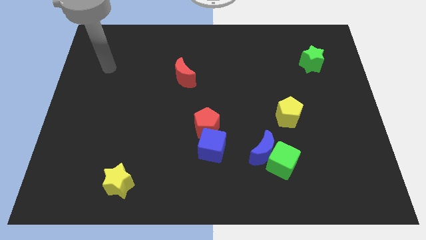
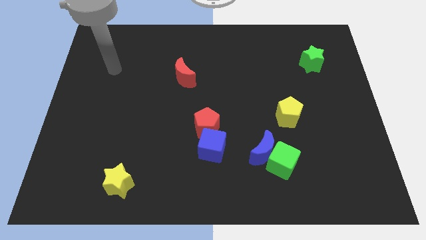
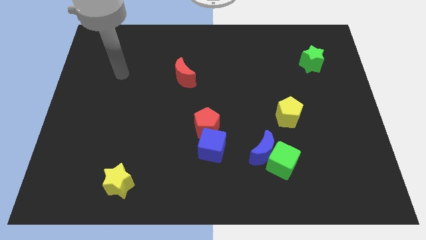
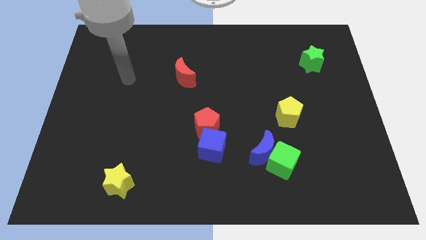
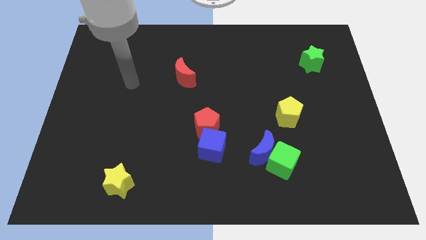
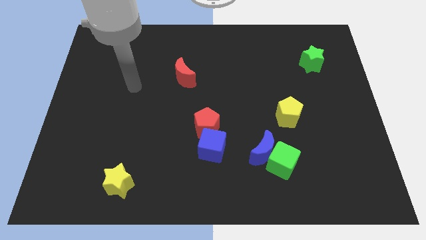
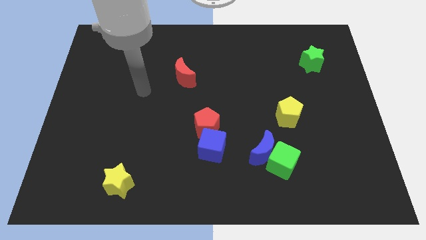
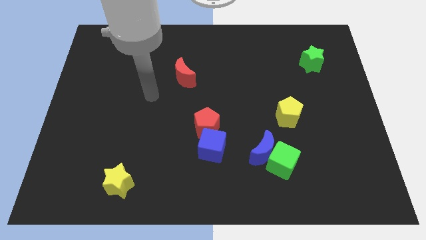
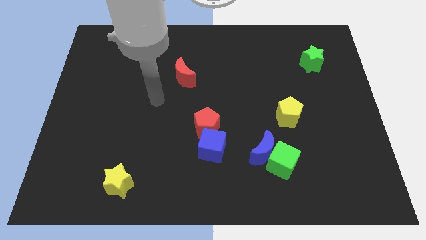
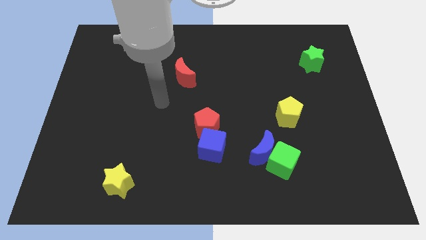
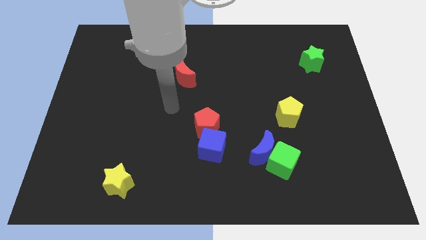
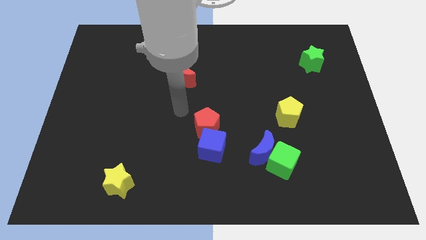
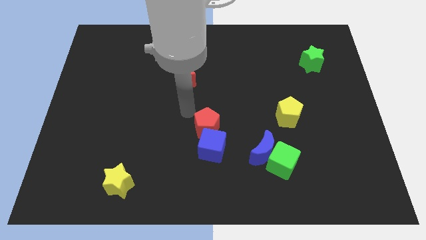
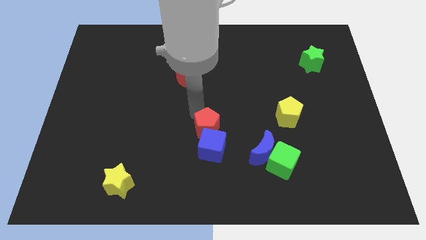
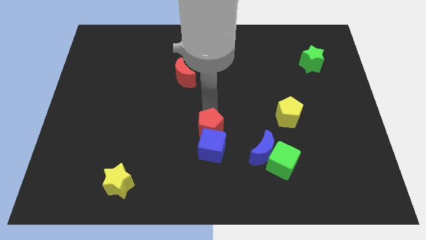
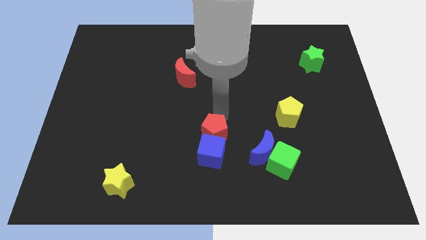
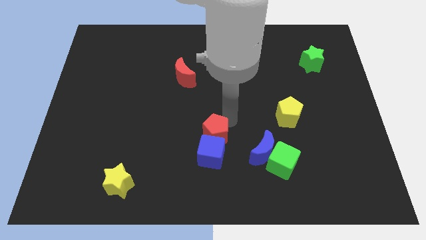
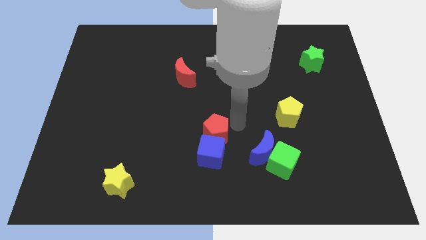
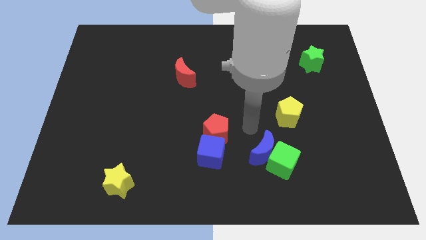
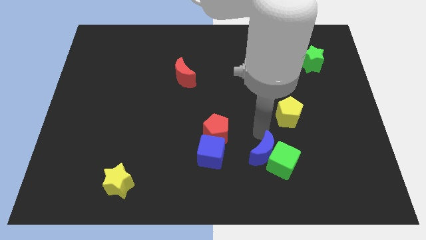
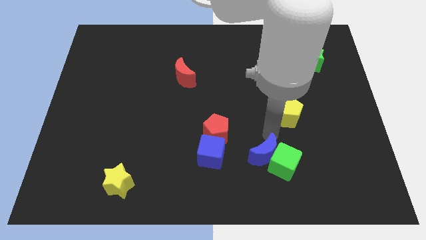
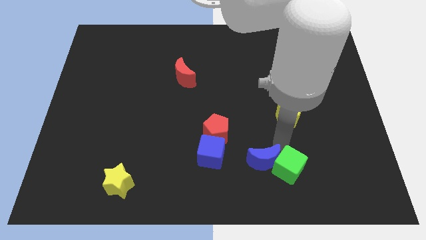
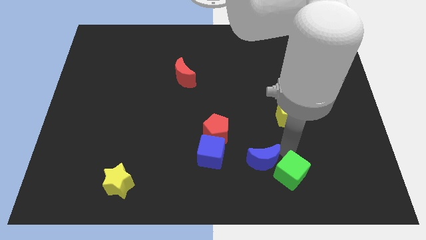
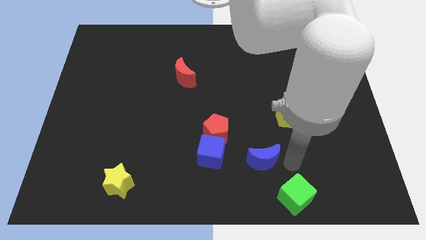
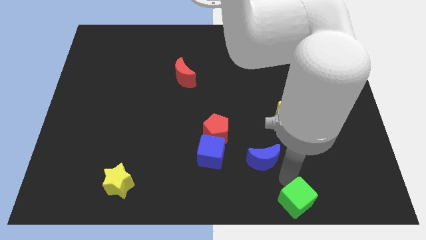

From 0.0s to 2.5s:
pull the blue moon apart from the green cube

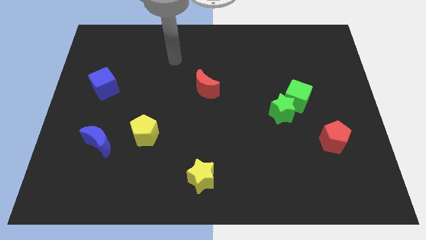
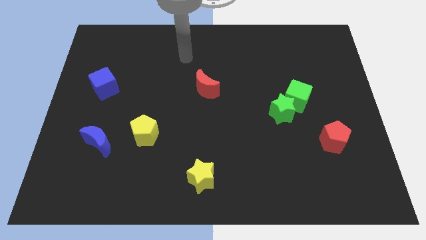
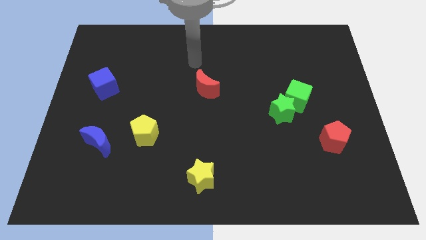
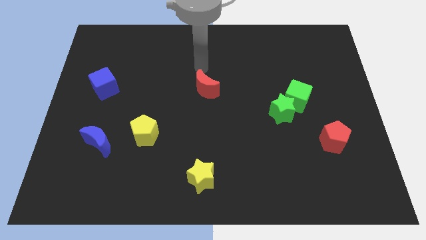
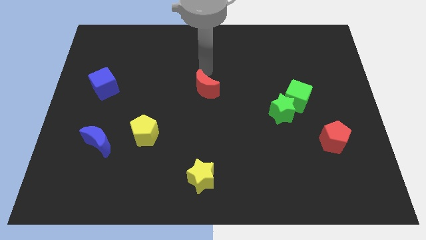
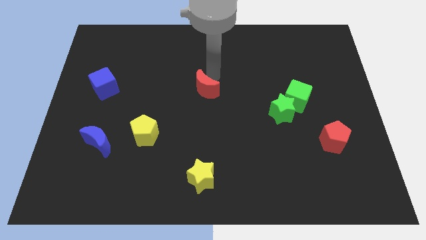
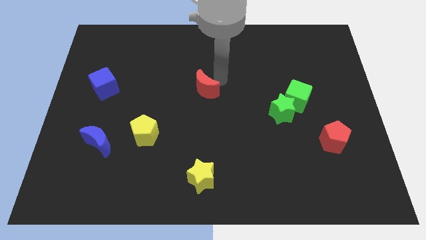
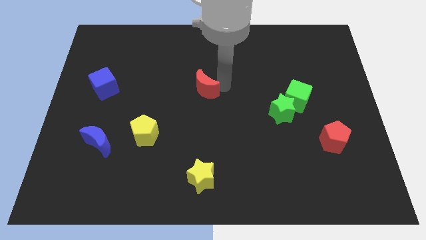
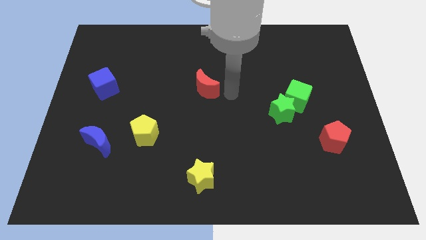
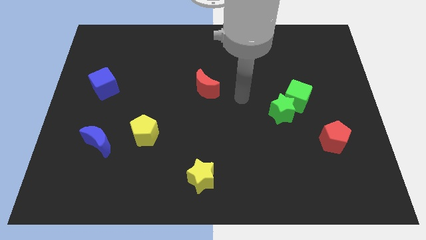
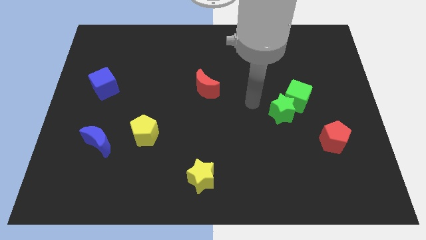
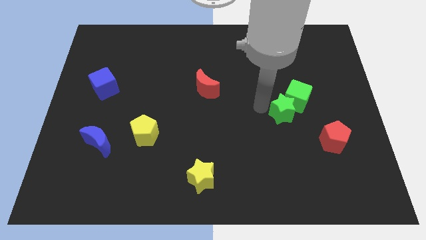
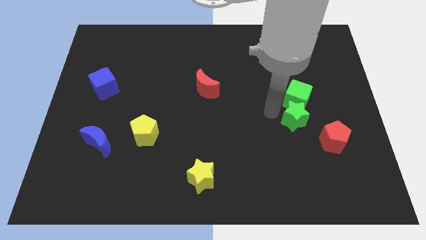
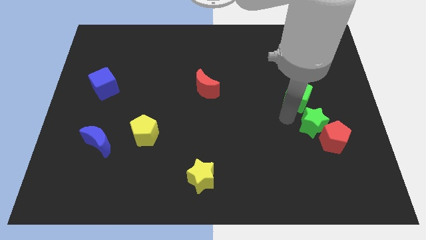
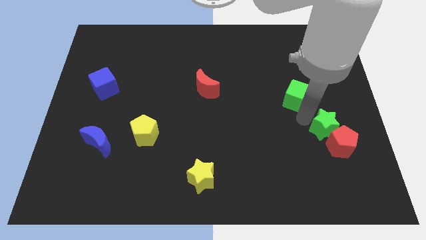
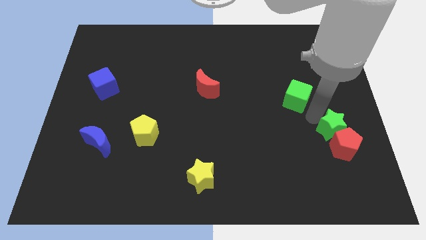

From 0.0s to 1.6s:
separate the green cube from the green star

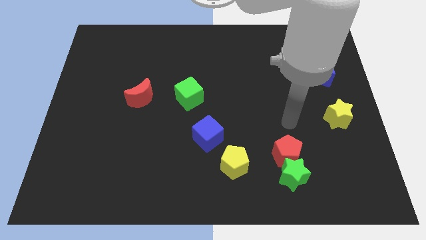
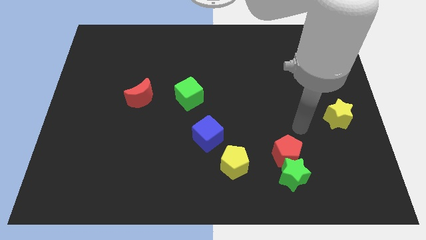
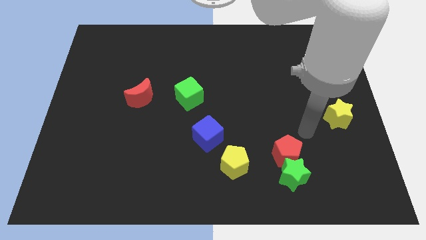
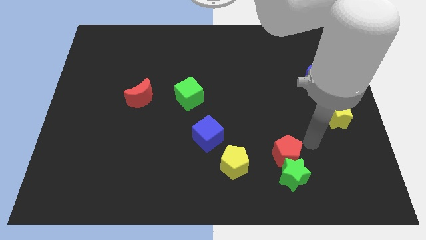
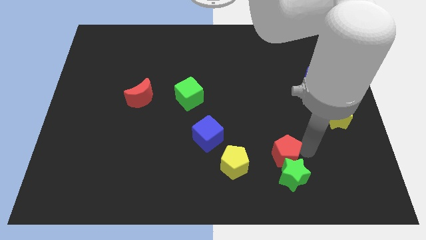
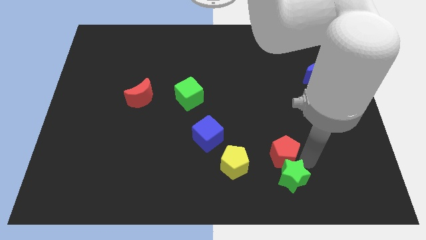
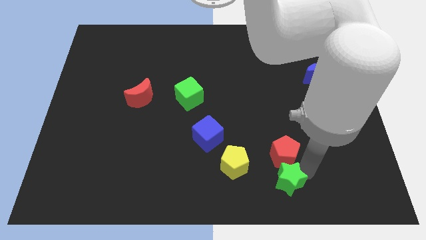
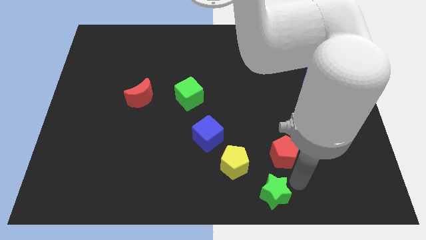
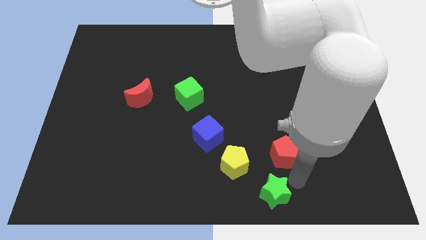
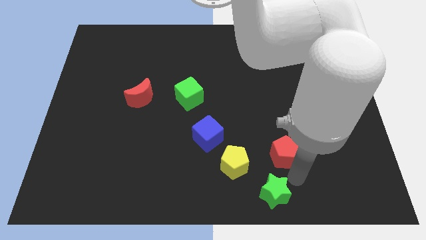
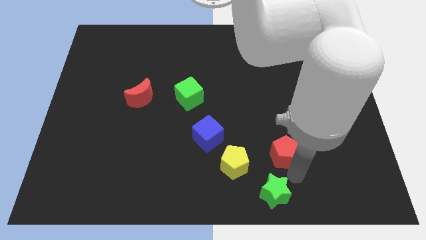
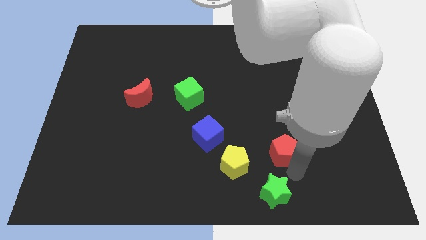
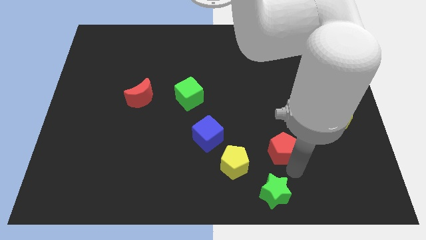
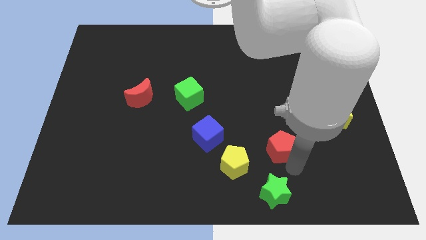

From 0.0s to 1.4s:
pull the red pentagon apart from the green star

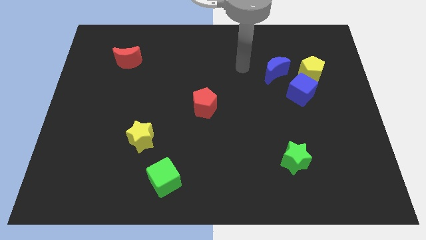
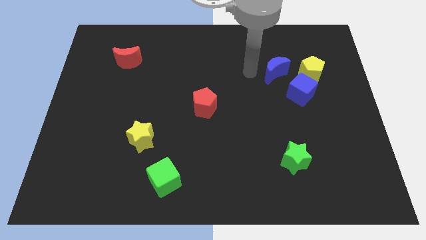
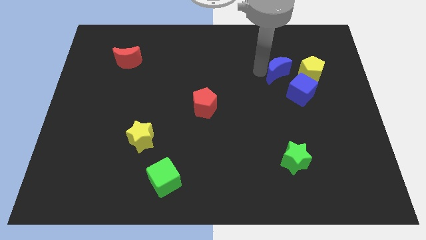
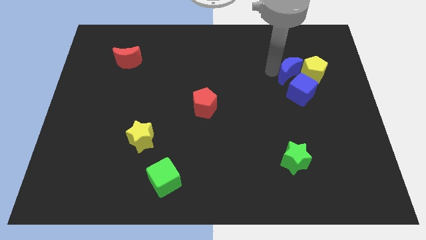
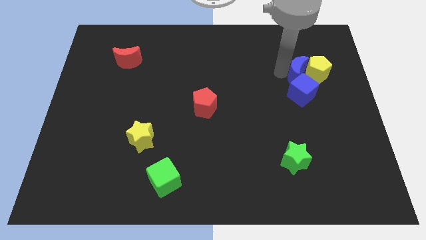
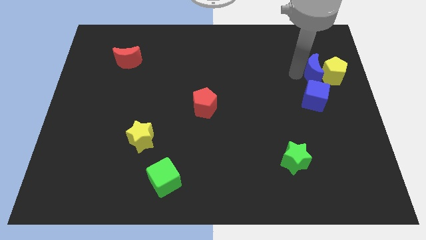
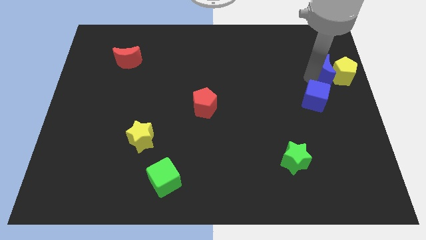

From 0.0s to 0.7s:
pull the blue cube apart from the yellow pentagon and blue moon

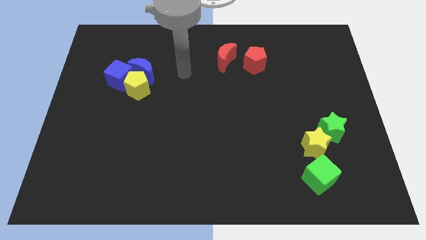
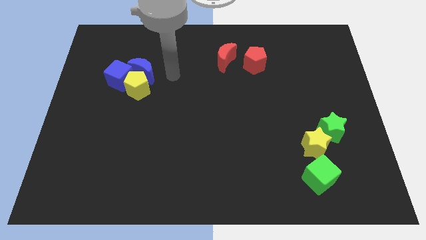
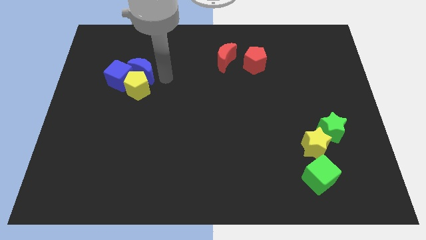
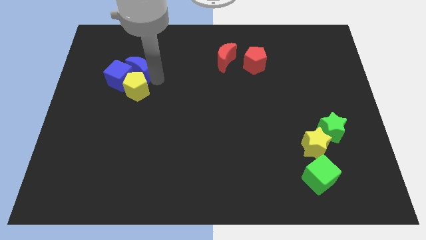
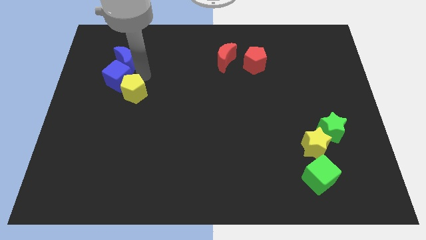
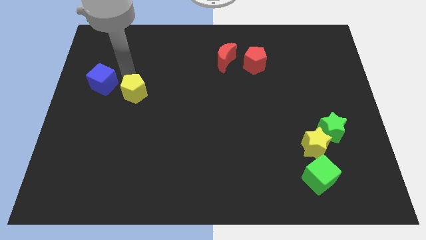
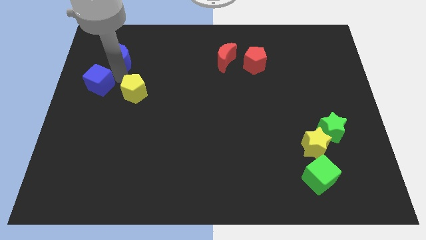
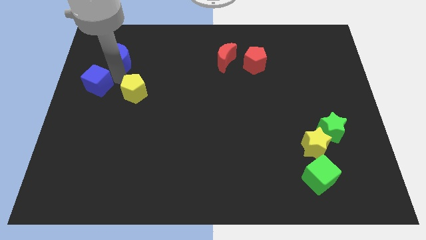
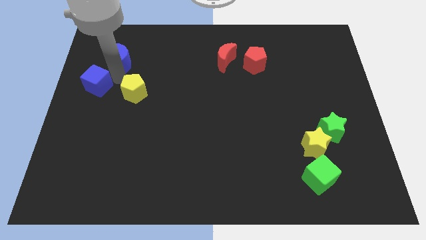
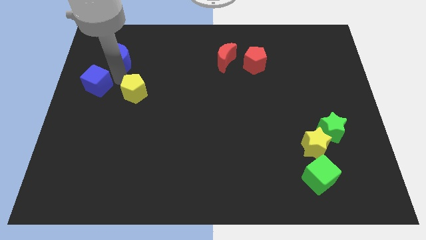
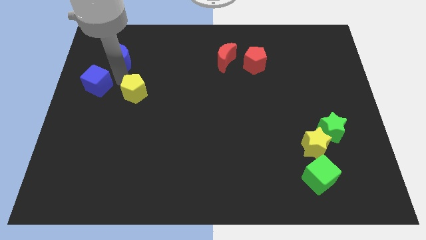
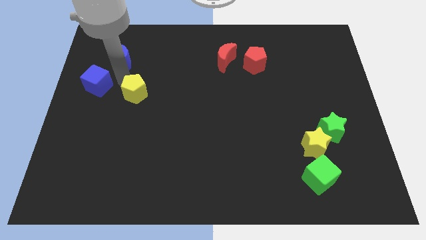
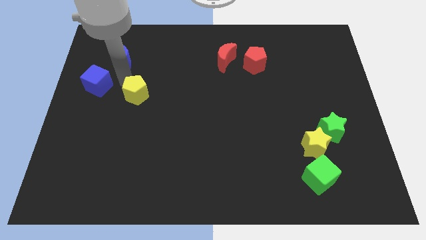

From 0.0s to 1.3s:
pull the yellow pentagon apart from the blue moon and blue cube

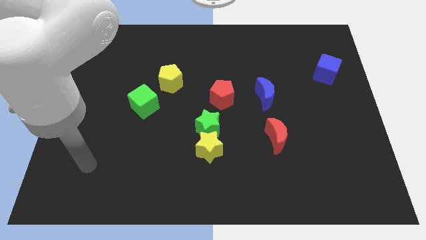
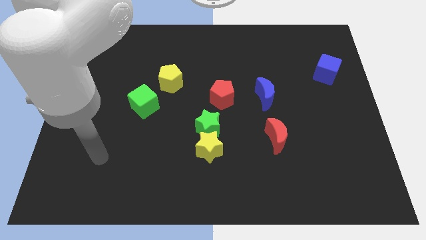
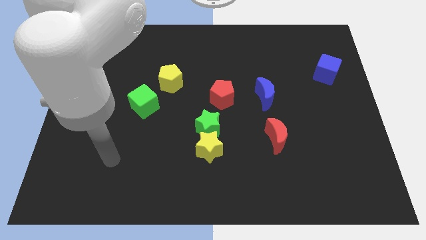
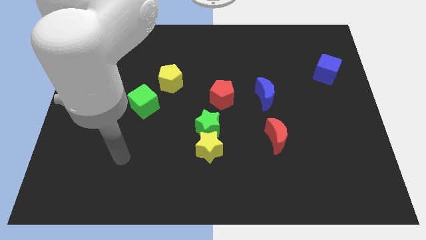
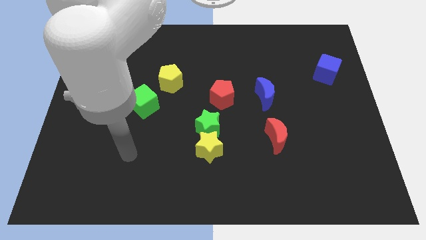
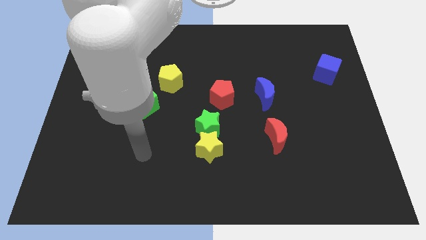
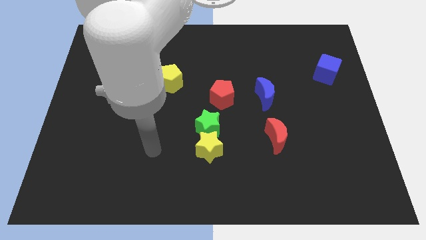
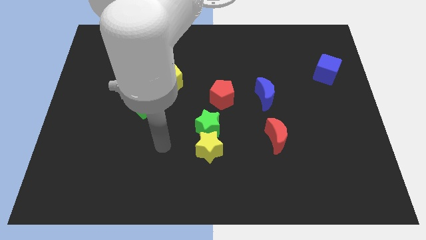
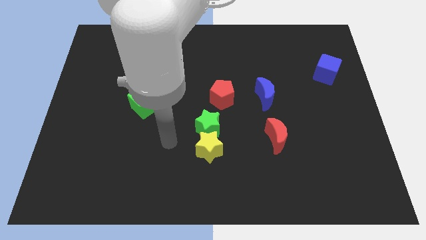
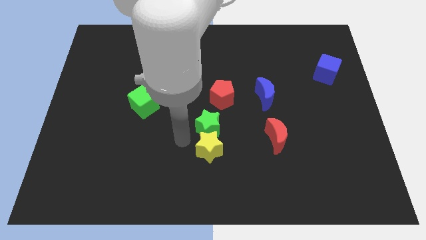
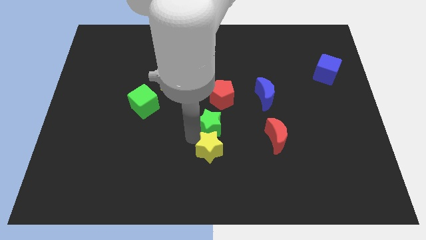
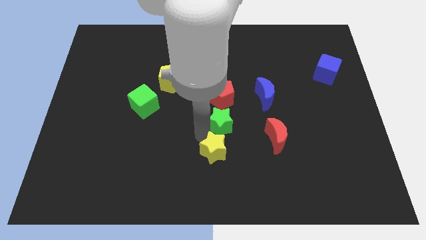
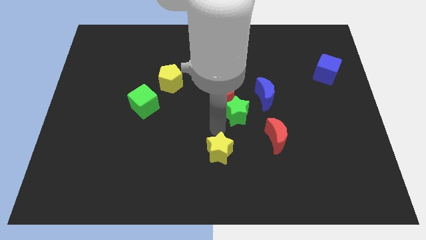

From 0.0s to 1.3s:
pull the yellow star apart from the green star

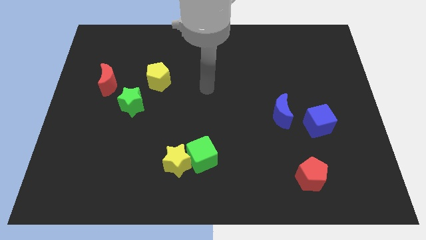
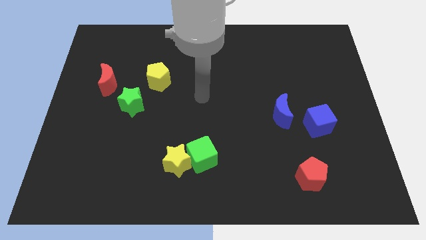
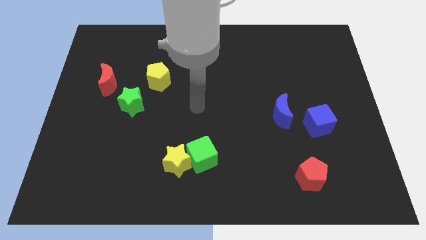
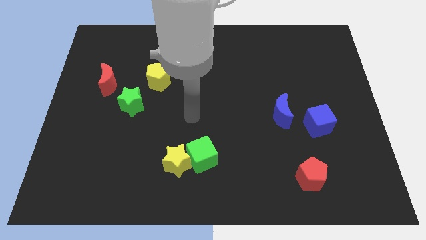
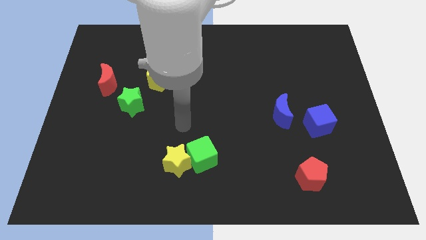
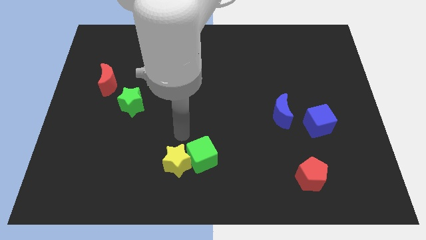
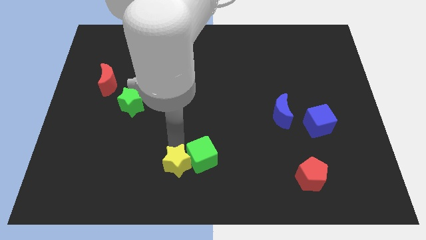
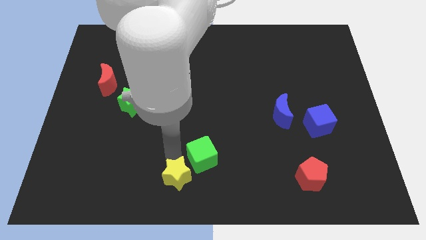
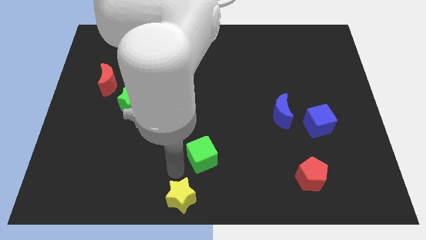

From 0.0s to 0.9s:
separate the green cube from the yellow star
